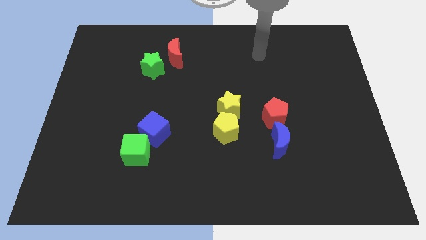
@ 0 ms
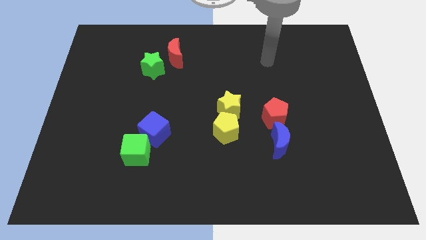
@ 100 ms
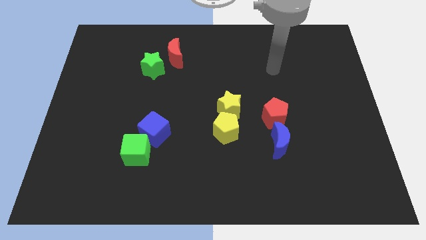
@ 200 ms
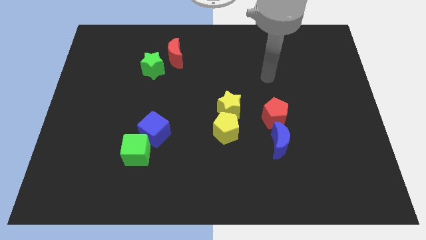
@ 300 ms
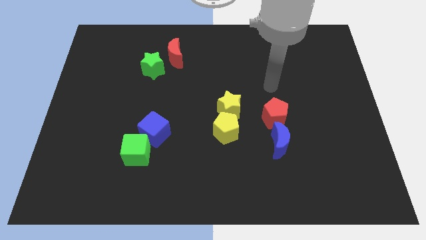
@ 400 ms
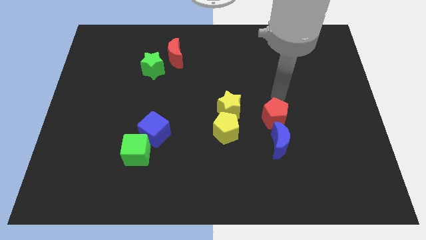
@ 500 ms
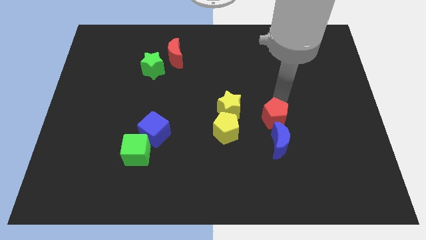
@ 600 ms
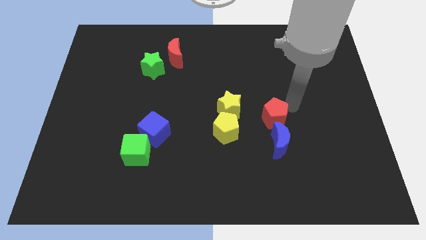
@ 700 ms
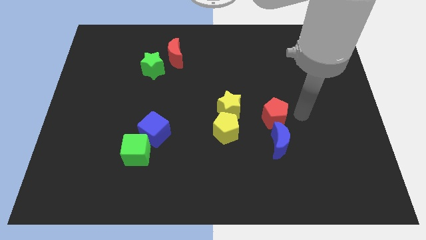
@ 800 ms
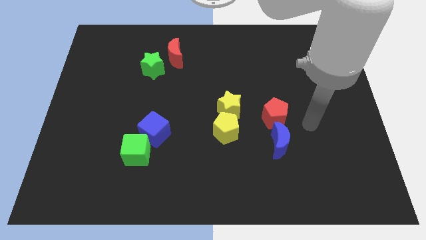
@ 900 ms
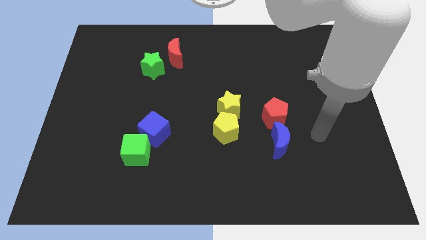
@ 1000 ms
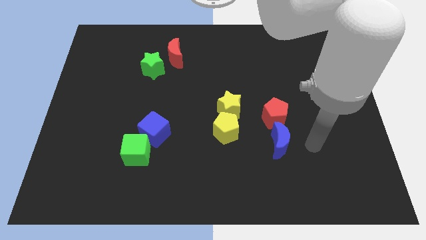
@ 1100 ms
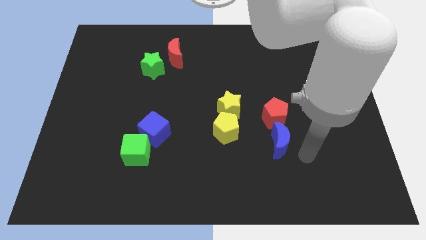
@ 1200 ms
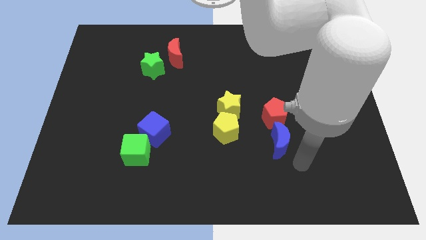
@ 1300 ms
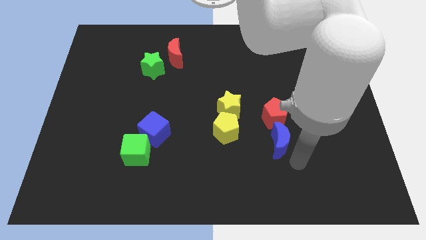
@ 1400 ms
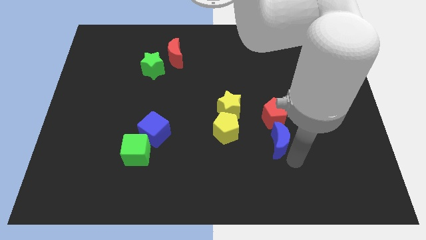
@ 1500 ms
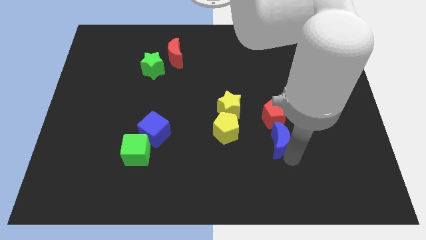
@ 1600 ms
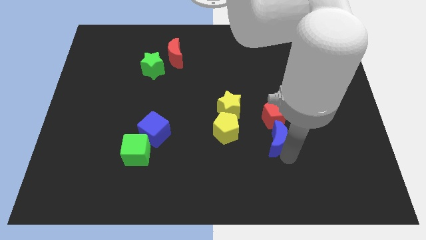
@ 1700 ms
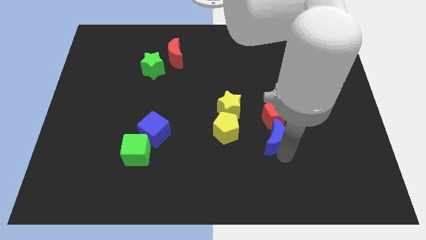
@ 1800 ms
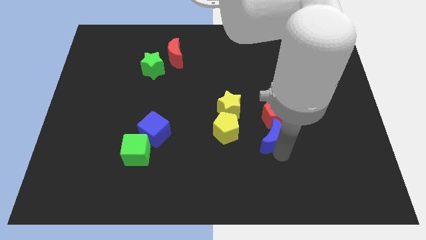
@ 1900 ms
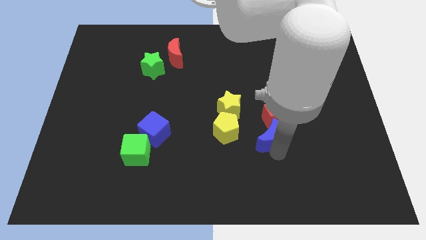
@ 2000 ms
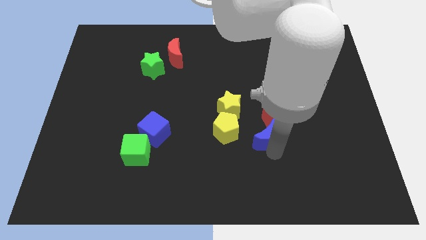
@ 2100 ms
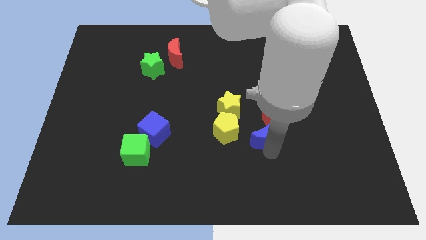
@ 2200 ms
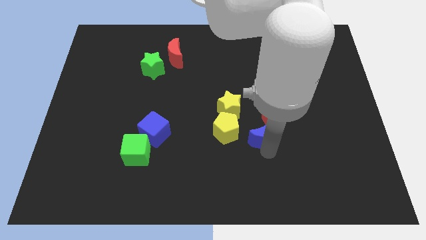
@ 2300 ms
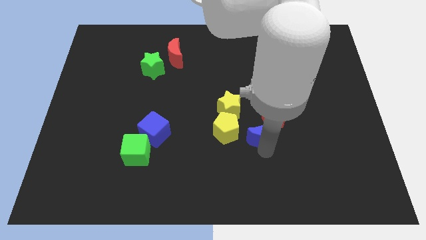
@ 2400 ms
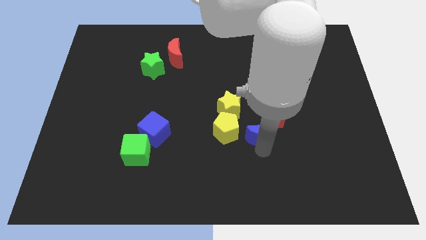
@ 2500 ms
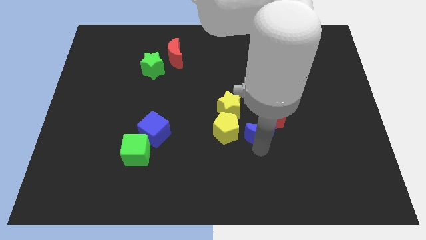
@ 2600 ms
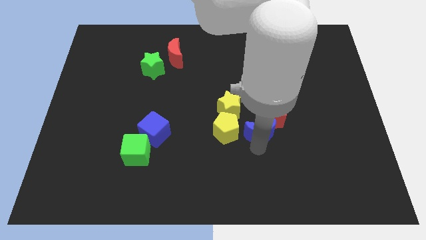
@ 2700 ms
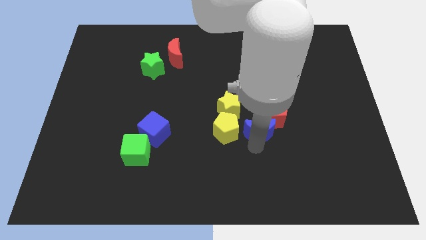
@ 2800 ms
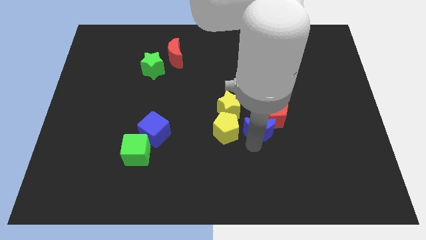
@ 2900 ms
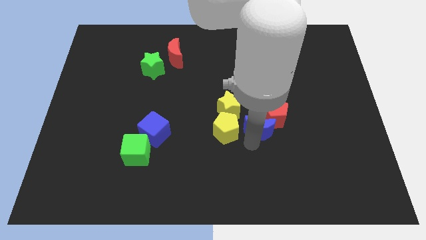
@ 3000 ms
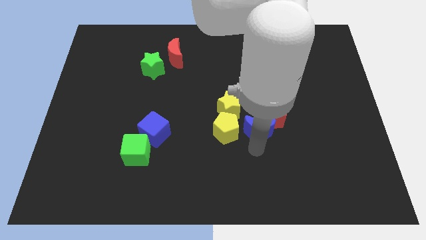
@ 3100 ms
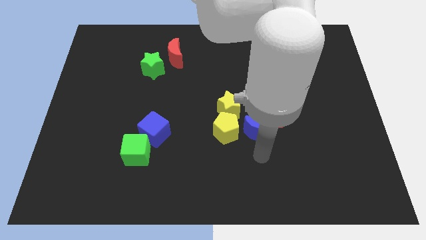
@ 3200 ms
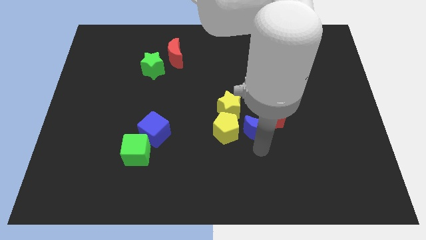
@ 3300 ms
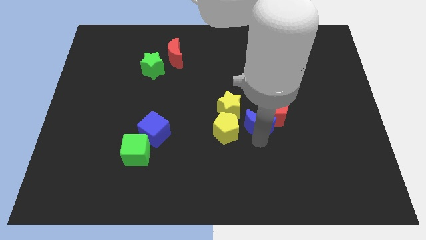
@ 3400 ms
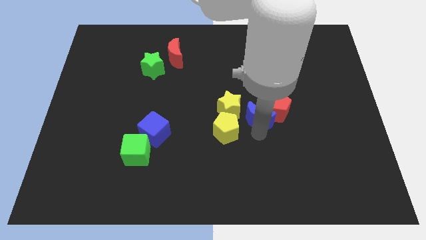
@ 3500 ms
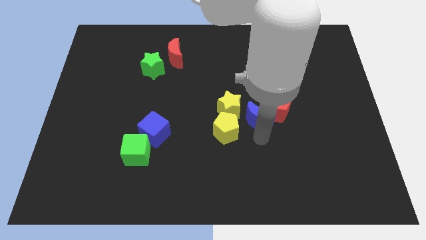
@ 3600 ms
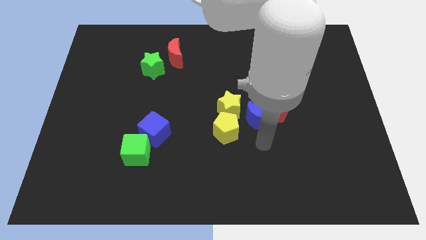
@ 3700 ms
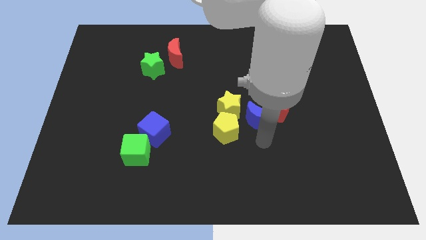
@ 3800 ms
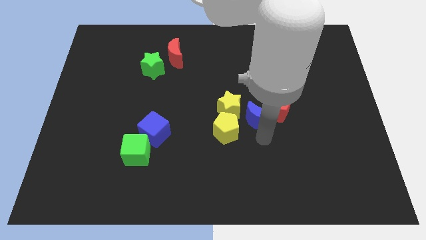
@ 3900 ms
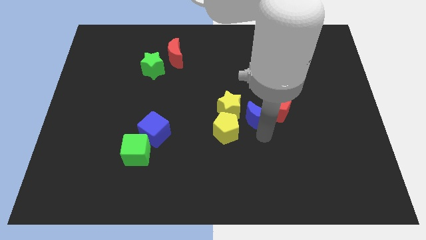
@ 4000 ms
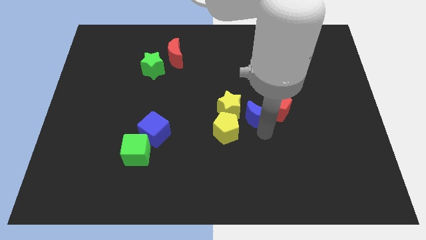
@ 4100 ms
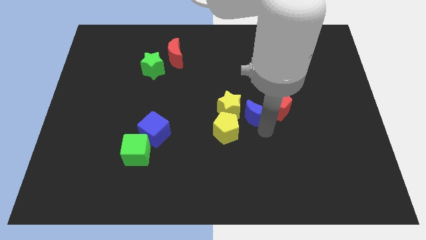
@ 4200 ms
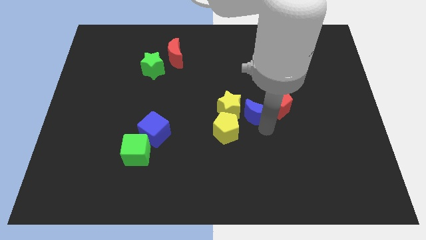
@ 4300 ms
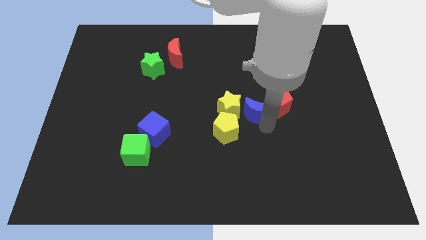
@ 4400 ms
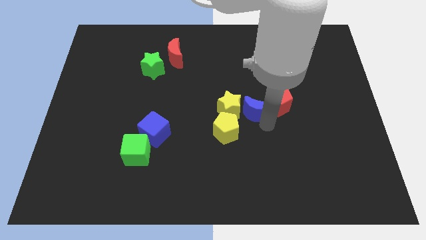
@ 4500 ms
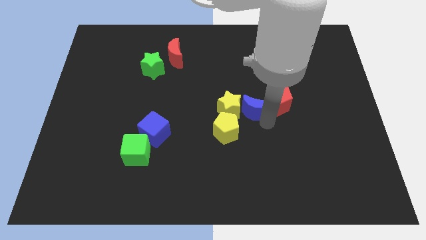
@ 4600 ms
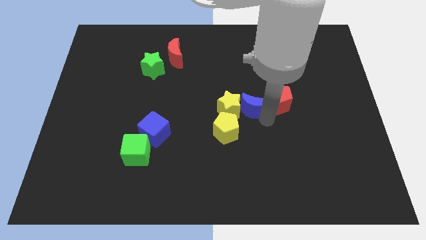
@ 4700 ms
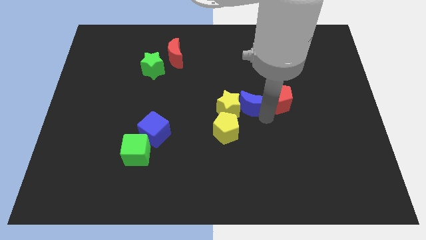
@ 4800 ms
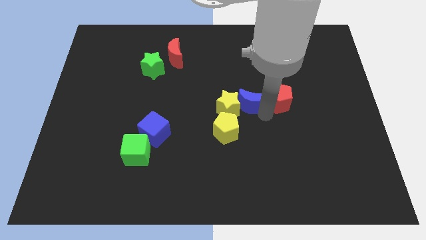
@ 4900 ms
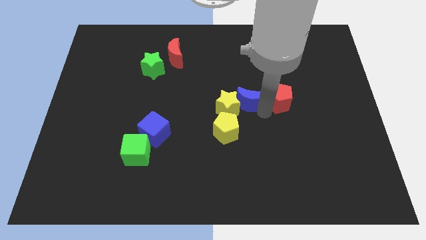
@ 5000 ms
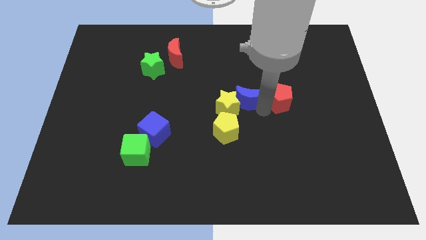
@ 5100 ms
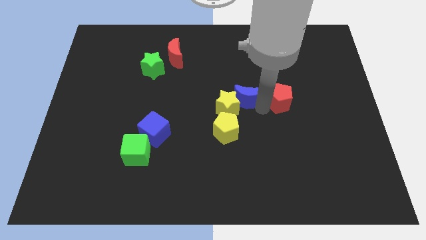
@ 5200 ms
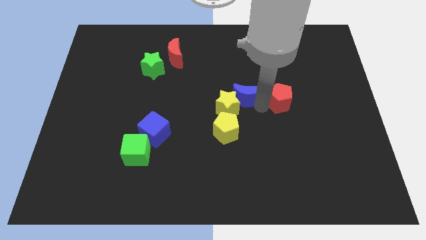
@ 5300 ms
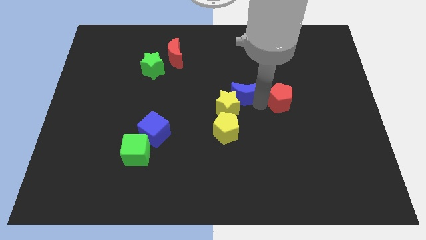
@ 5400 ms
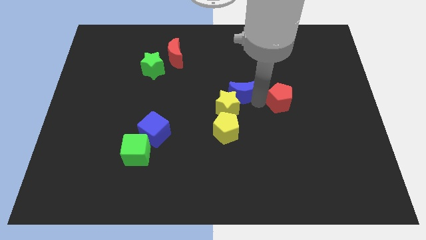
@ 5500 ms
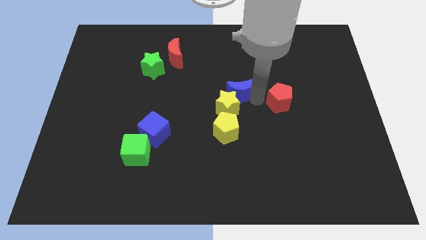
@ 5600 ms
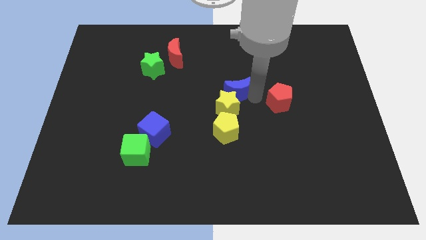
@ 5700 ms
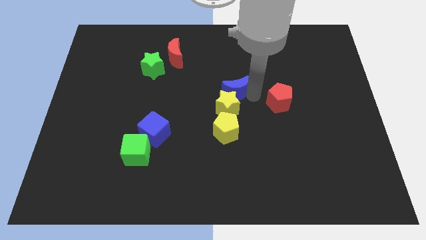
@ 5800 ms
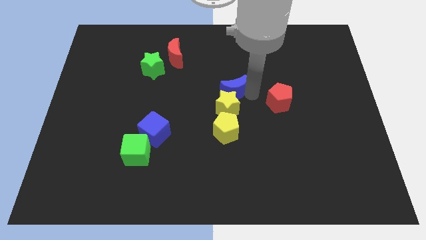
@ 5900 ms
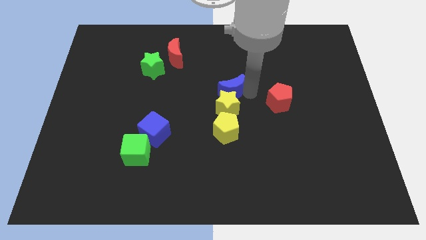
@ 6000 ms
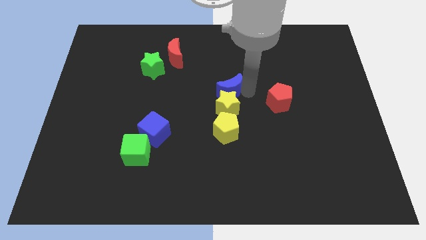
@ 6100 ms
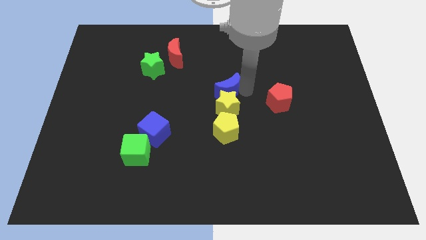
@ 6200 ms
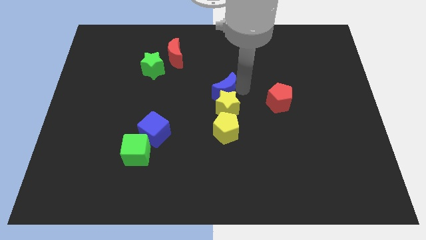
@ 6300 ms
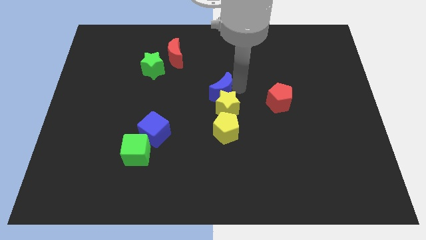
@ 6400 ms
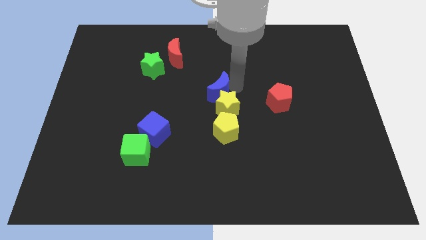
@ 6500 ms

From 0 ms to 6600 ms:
slide the blue moon up and left

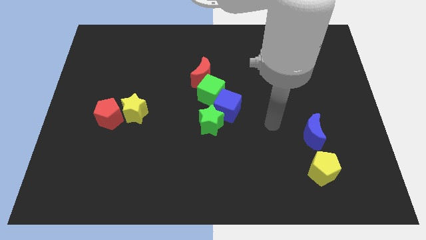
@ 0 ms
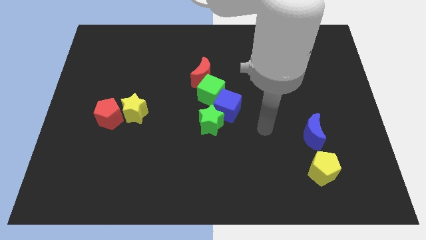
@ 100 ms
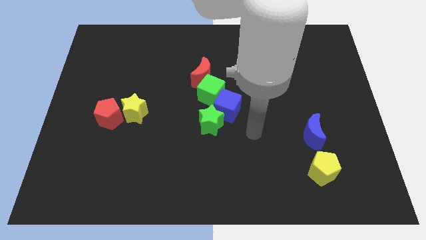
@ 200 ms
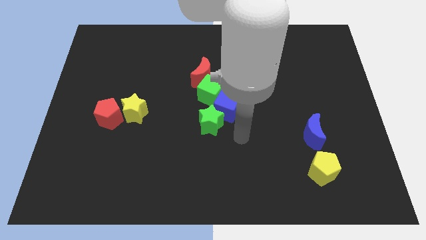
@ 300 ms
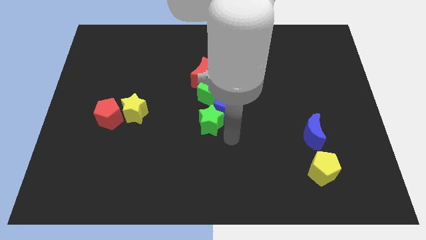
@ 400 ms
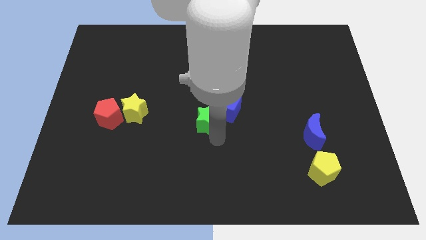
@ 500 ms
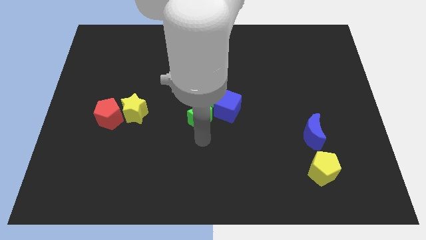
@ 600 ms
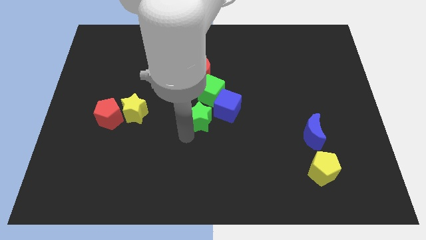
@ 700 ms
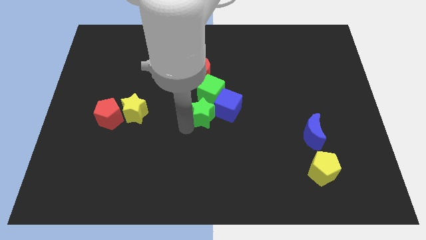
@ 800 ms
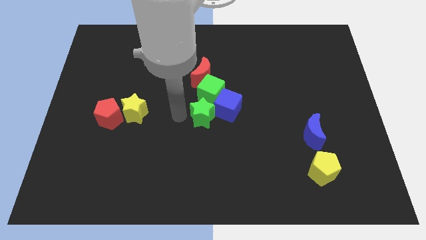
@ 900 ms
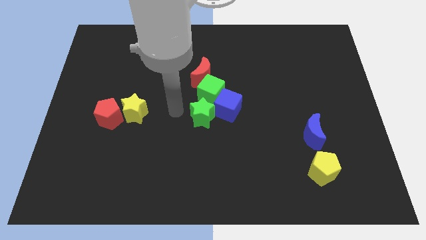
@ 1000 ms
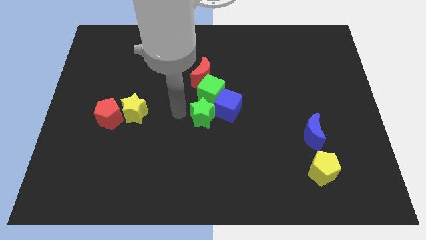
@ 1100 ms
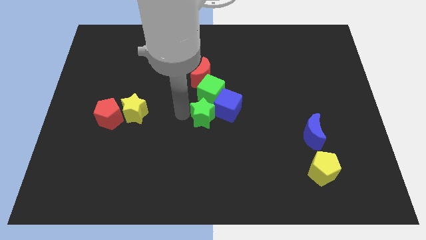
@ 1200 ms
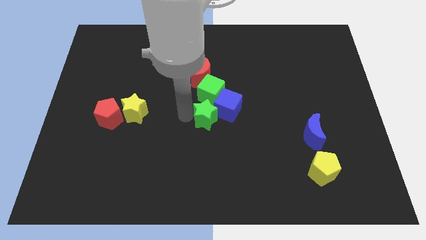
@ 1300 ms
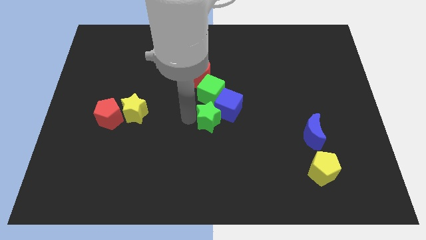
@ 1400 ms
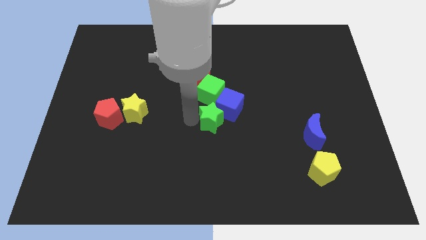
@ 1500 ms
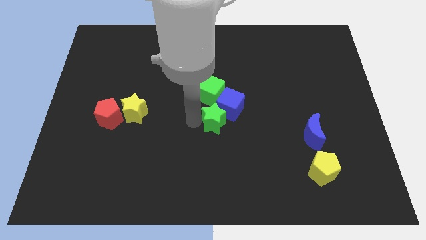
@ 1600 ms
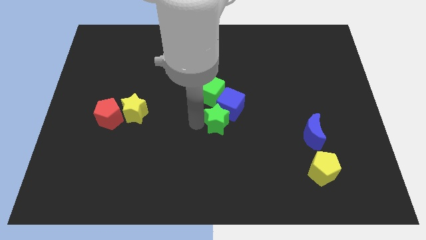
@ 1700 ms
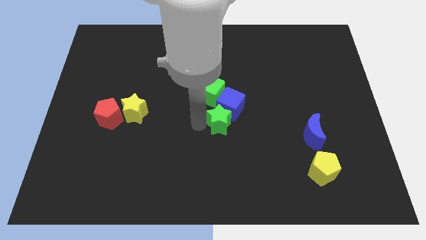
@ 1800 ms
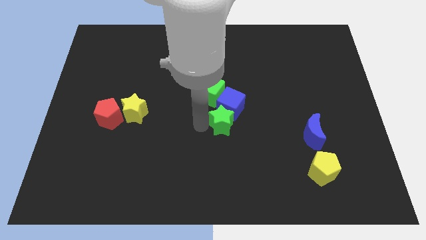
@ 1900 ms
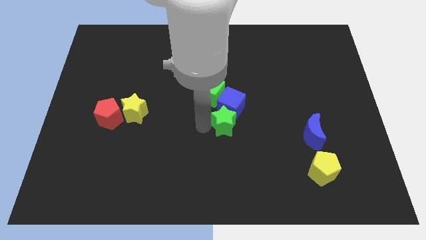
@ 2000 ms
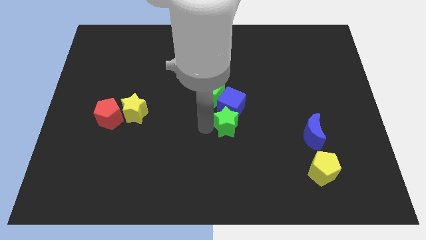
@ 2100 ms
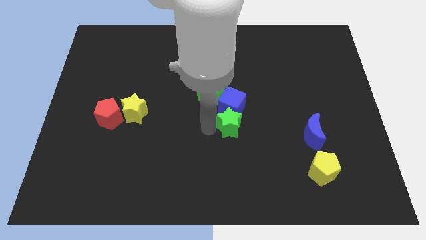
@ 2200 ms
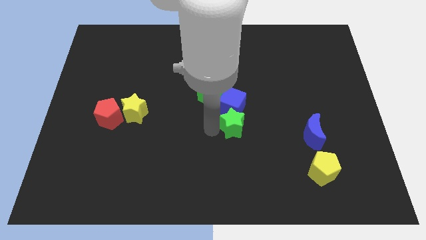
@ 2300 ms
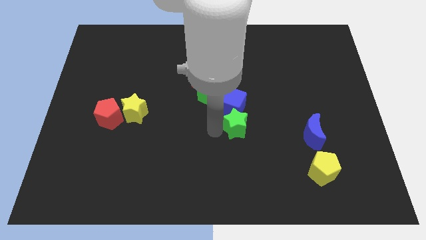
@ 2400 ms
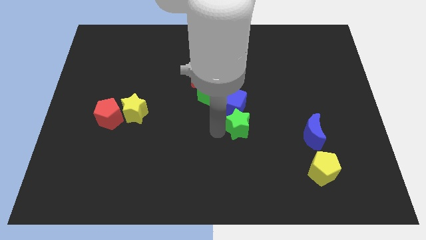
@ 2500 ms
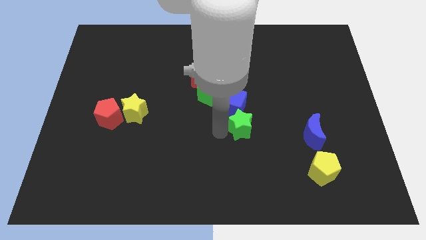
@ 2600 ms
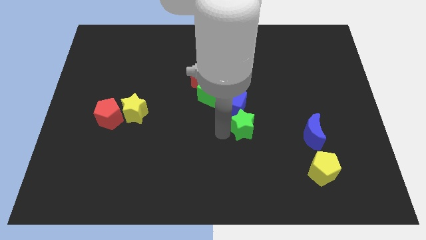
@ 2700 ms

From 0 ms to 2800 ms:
slightly move the green star to the right
